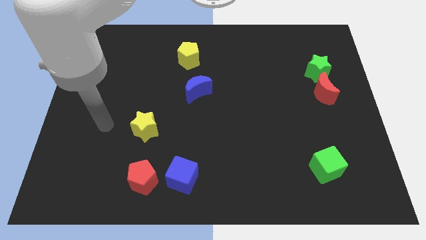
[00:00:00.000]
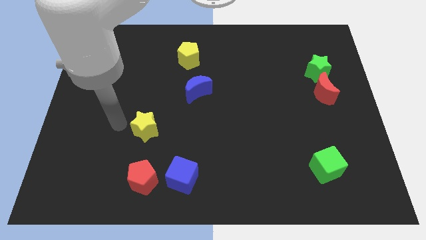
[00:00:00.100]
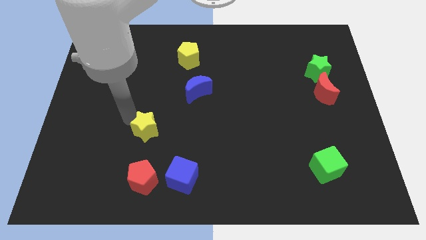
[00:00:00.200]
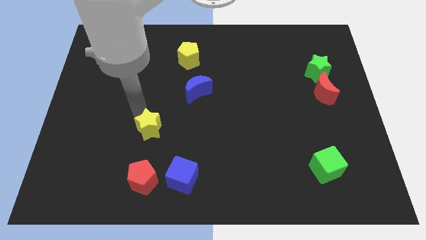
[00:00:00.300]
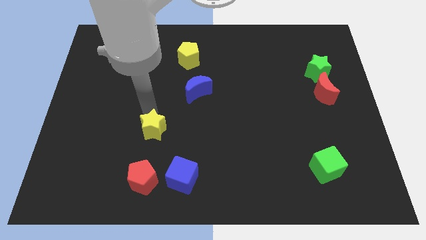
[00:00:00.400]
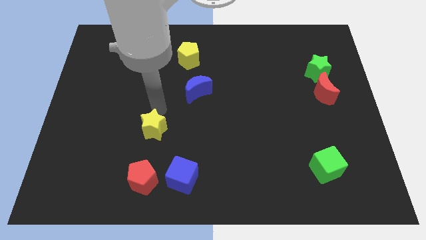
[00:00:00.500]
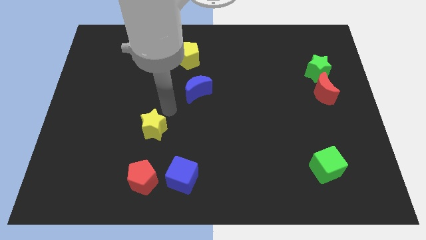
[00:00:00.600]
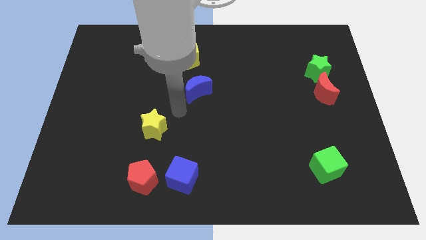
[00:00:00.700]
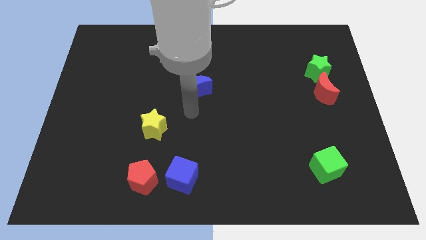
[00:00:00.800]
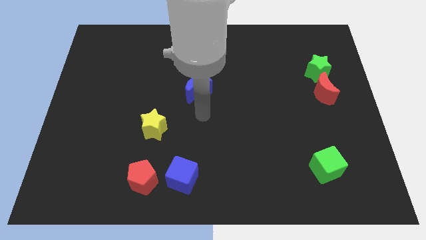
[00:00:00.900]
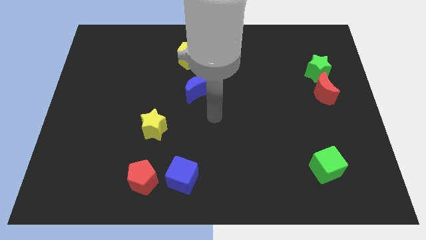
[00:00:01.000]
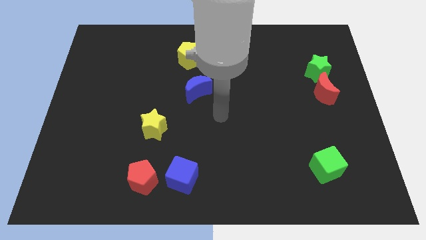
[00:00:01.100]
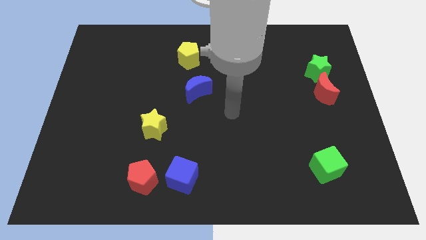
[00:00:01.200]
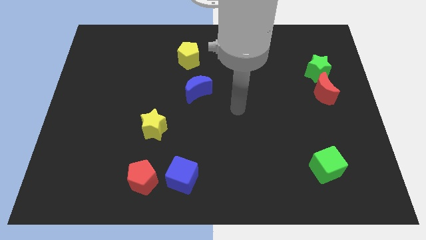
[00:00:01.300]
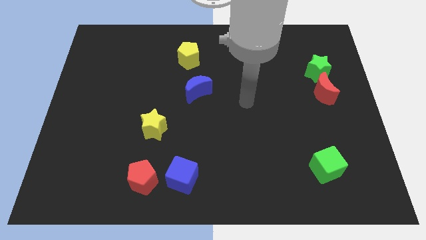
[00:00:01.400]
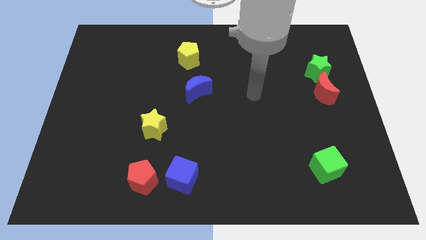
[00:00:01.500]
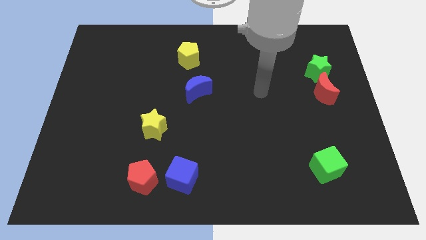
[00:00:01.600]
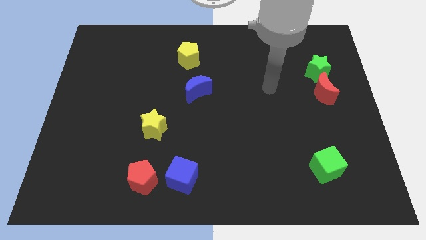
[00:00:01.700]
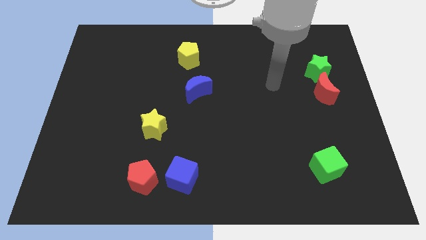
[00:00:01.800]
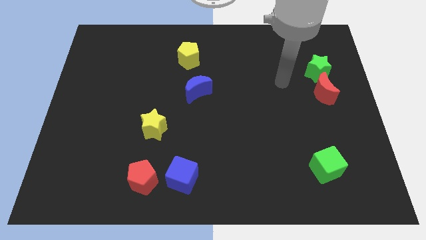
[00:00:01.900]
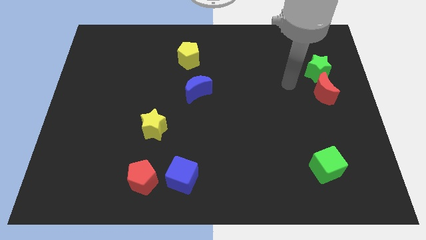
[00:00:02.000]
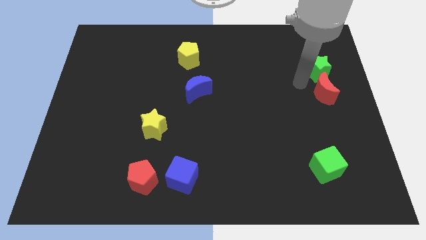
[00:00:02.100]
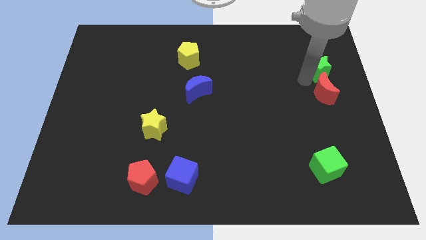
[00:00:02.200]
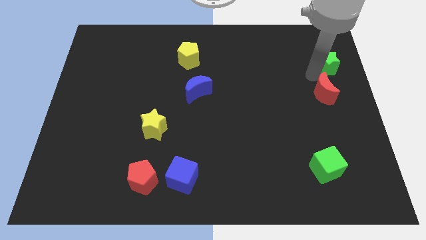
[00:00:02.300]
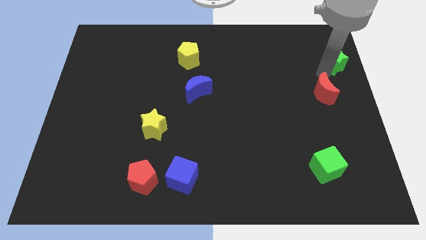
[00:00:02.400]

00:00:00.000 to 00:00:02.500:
separate the red moon from the green star

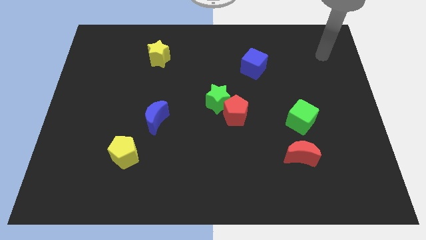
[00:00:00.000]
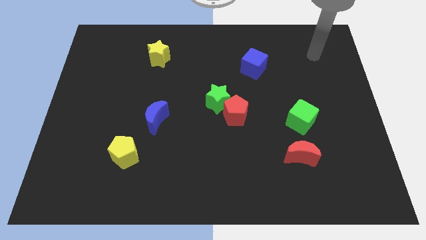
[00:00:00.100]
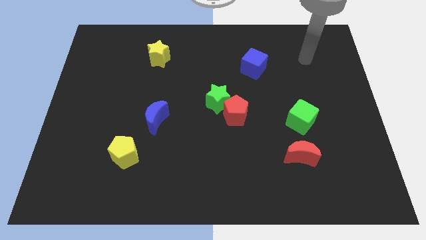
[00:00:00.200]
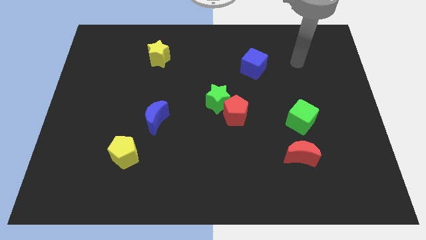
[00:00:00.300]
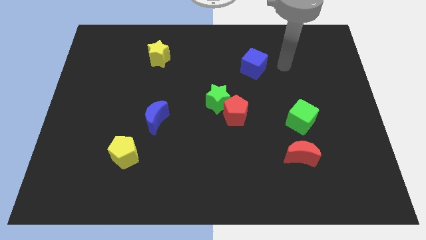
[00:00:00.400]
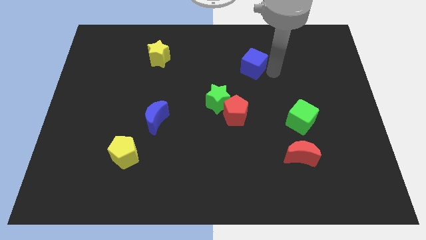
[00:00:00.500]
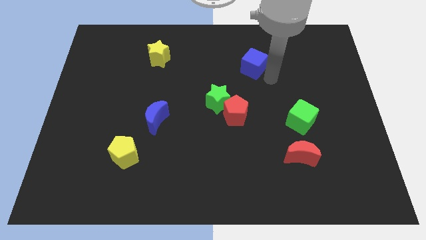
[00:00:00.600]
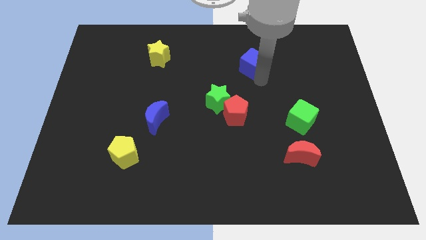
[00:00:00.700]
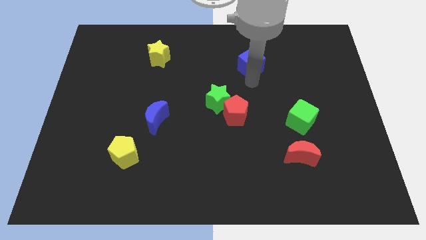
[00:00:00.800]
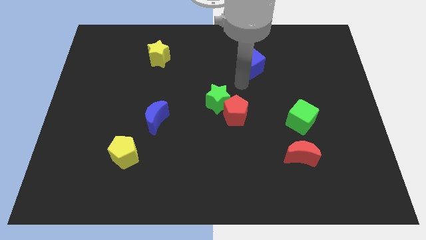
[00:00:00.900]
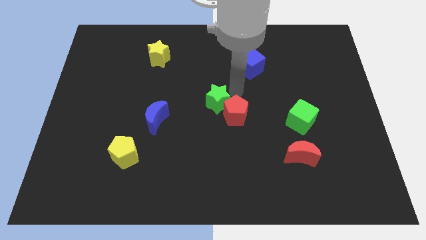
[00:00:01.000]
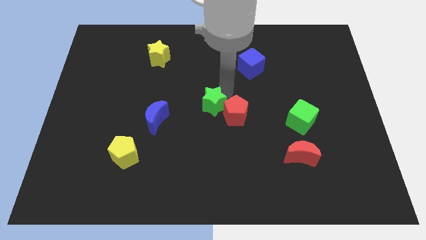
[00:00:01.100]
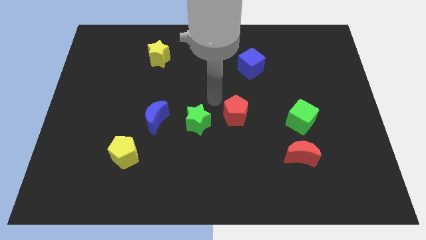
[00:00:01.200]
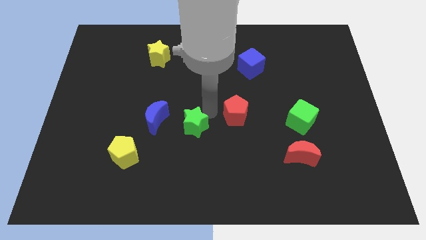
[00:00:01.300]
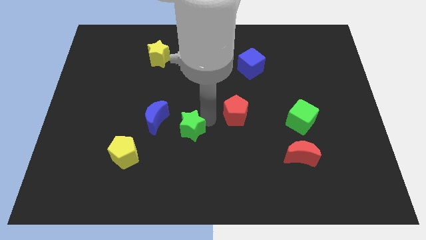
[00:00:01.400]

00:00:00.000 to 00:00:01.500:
pull the red pentagon apart from the green star

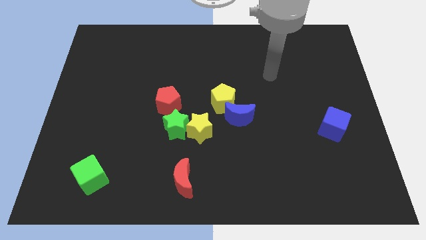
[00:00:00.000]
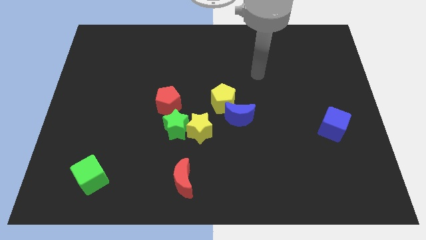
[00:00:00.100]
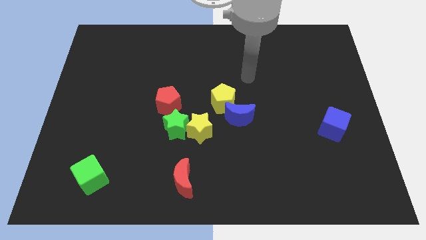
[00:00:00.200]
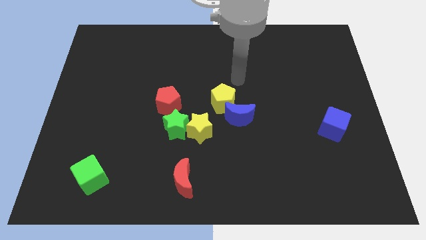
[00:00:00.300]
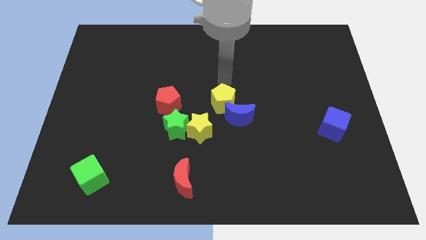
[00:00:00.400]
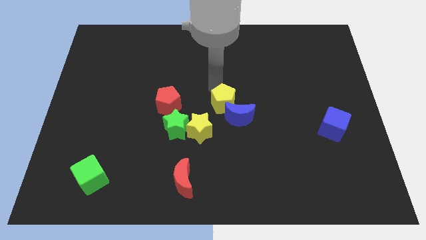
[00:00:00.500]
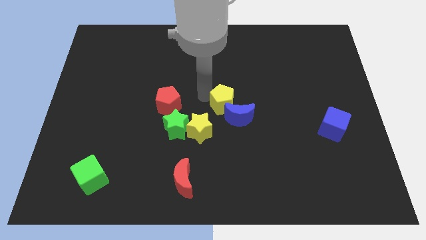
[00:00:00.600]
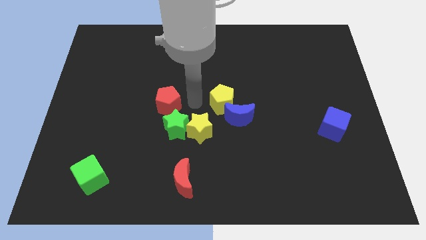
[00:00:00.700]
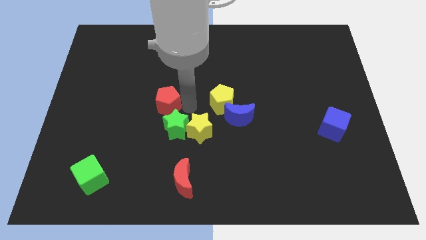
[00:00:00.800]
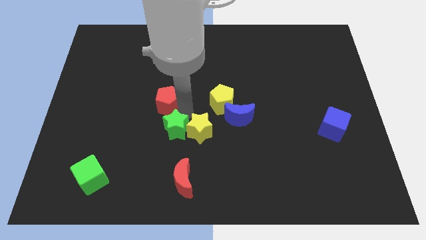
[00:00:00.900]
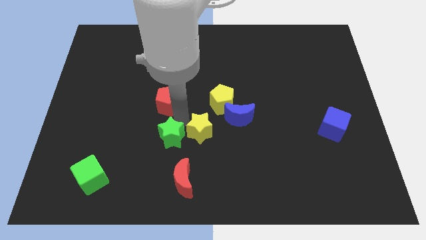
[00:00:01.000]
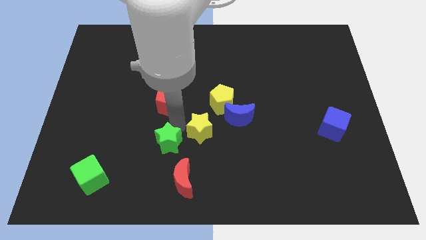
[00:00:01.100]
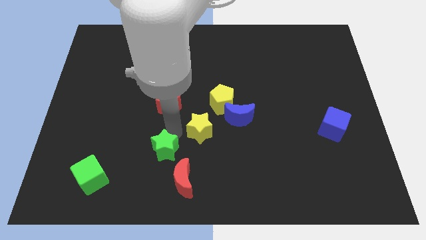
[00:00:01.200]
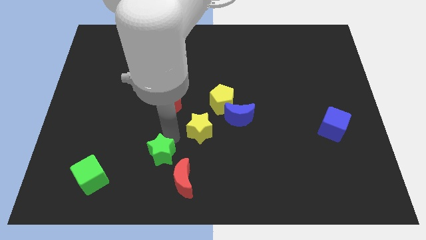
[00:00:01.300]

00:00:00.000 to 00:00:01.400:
separate the green star from the yellow star and red pentagon

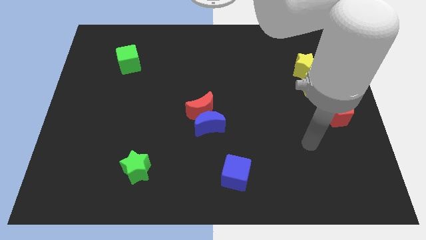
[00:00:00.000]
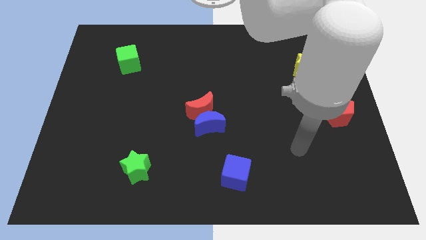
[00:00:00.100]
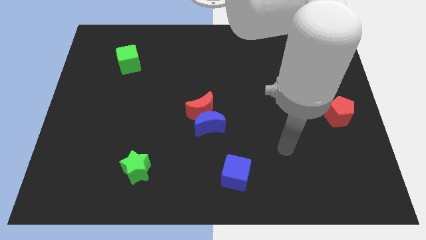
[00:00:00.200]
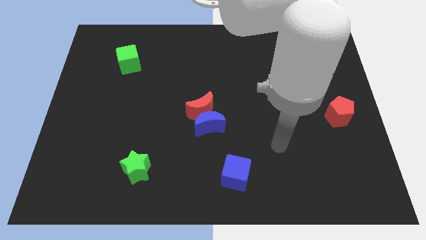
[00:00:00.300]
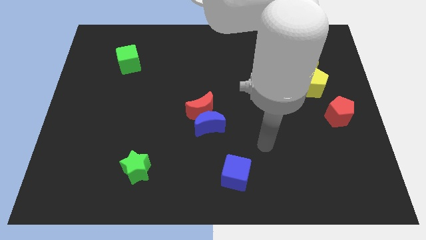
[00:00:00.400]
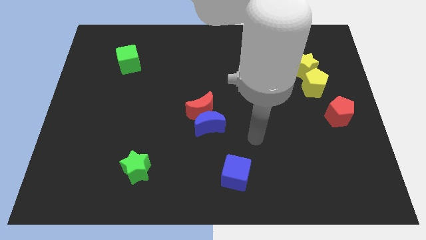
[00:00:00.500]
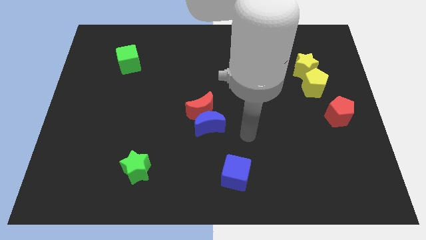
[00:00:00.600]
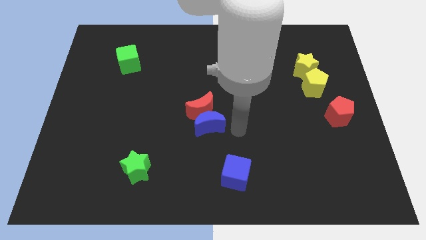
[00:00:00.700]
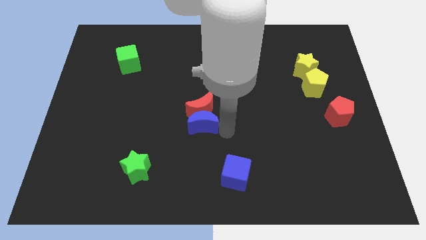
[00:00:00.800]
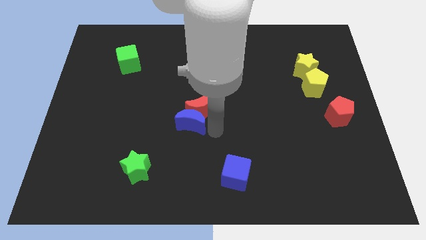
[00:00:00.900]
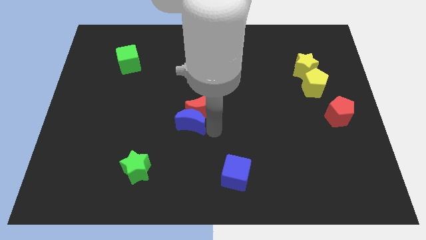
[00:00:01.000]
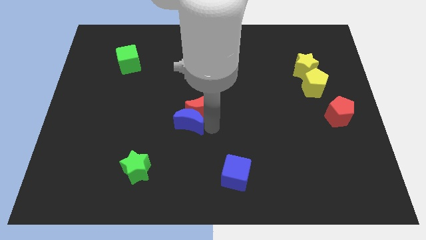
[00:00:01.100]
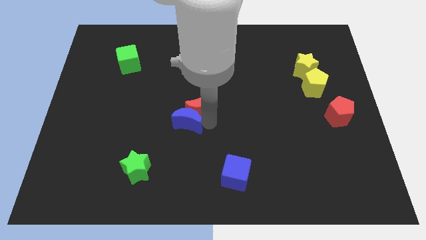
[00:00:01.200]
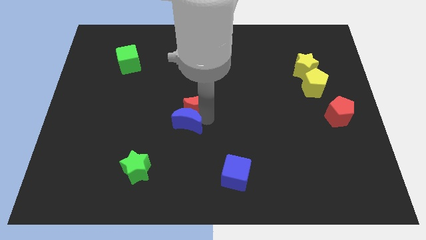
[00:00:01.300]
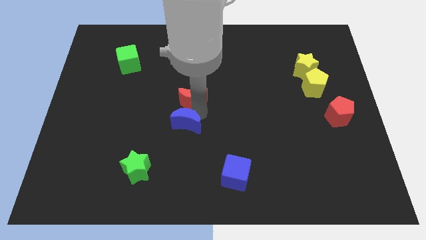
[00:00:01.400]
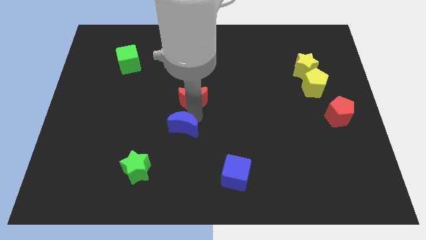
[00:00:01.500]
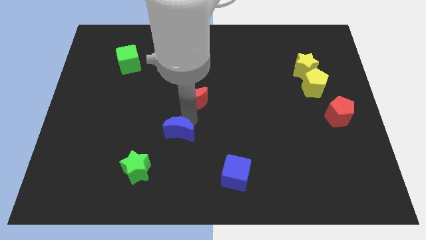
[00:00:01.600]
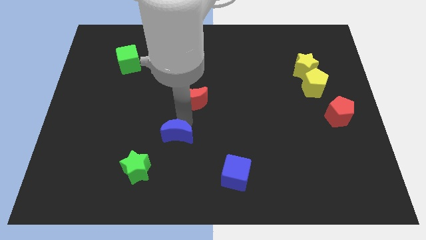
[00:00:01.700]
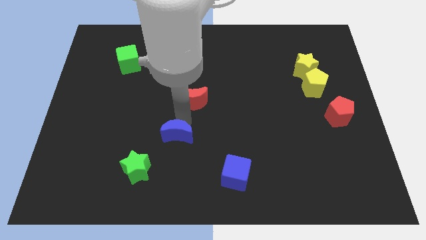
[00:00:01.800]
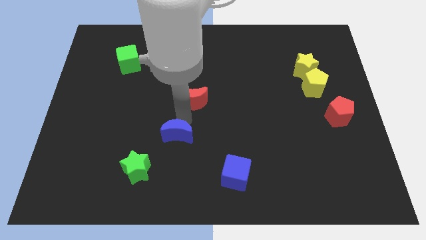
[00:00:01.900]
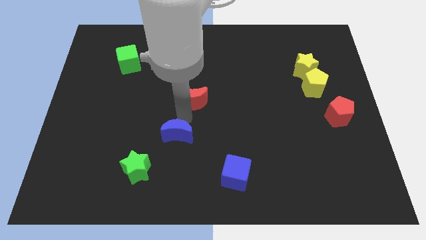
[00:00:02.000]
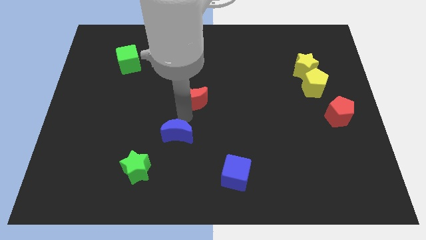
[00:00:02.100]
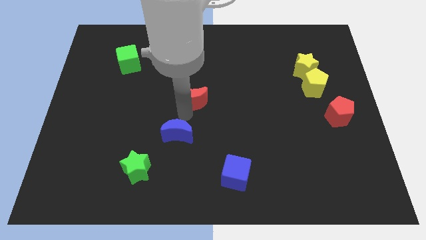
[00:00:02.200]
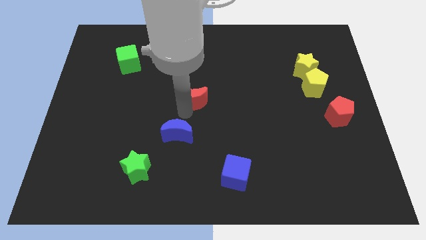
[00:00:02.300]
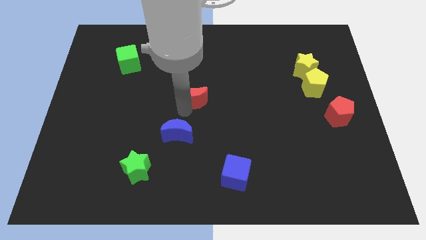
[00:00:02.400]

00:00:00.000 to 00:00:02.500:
separate the red moon from the blue moon

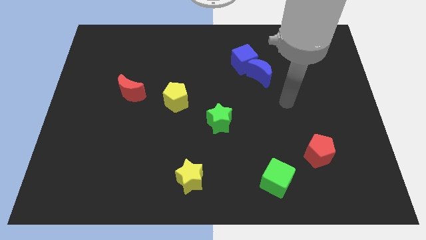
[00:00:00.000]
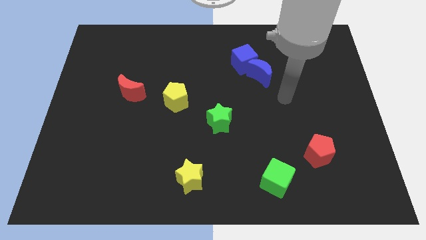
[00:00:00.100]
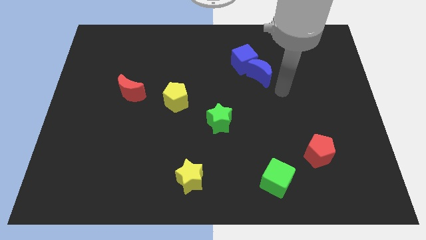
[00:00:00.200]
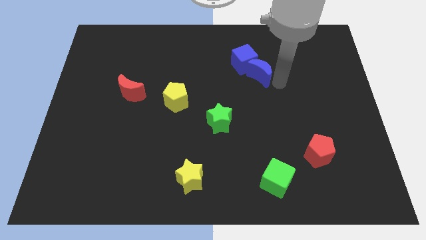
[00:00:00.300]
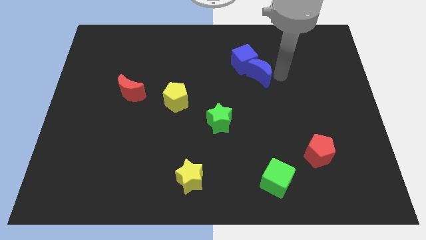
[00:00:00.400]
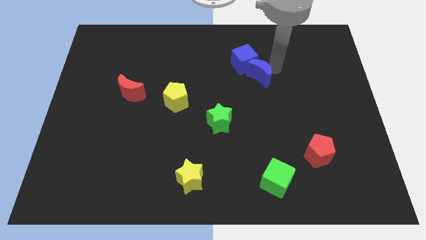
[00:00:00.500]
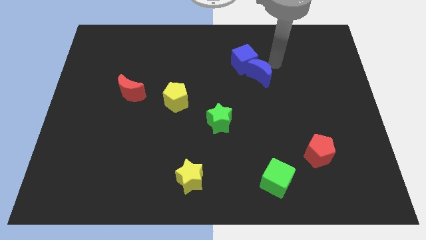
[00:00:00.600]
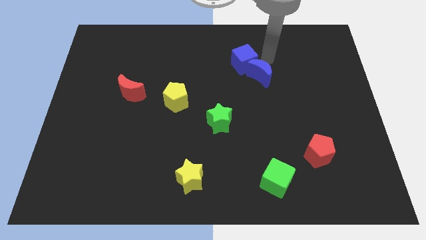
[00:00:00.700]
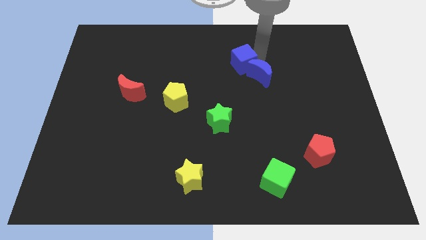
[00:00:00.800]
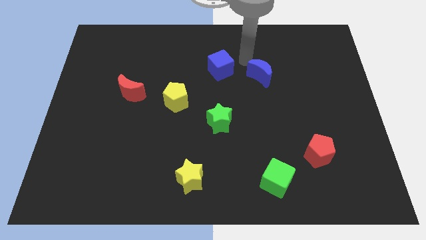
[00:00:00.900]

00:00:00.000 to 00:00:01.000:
pull the blue moon apart from the blue cube

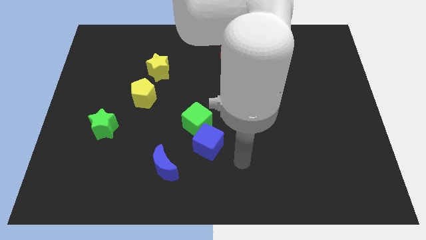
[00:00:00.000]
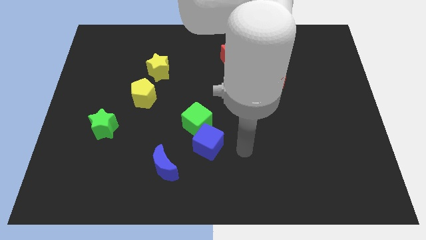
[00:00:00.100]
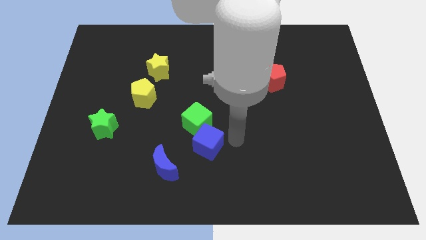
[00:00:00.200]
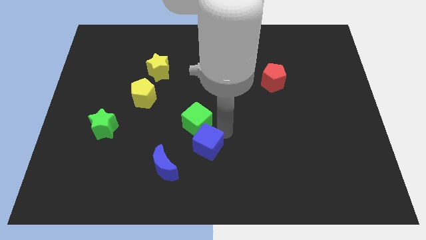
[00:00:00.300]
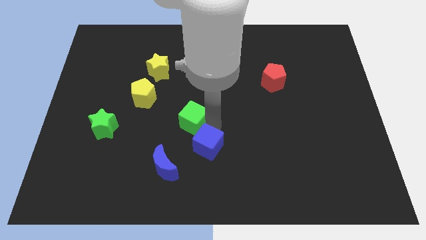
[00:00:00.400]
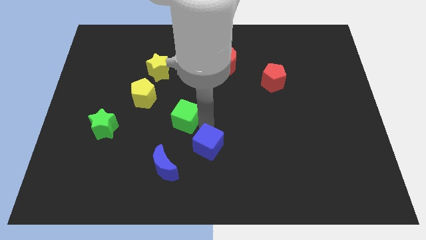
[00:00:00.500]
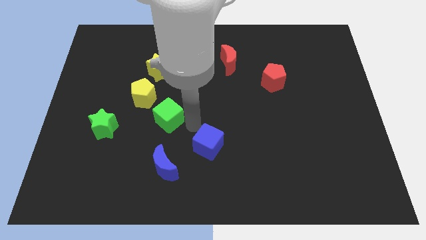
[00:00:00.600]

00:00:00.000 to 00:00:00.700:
separate the blue cube from the green cube
